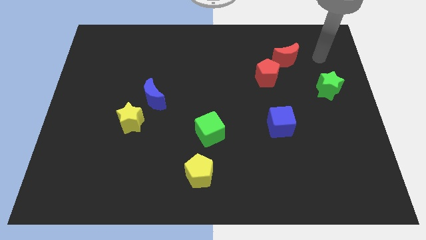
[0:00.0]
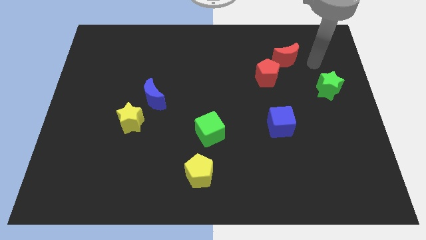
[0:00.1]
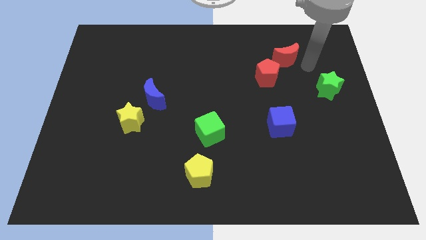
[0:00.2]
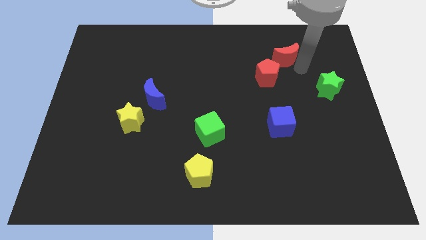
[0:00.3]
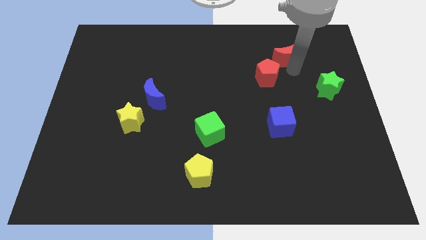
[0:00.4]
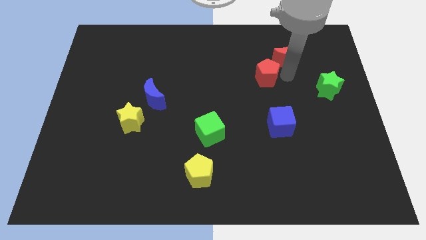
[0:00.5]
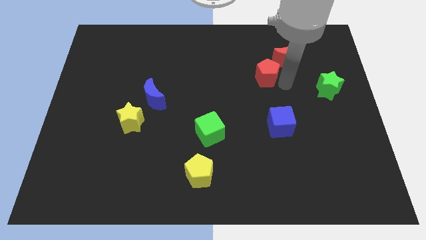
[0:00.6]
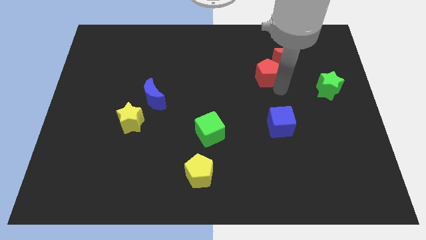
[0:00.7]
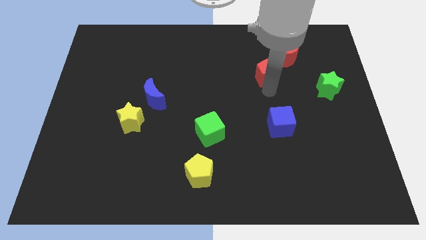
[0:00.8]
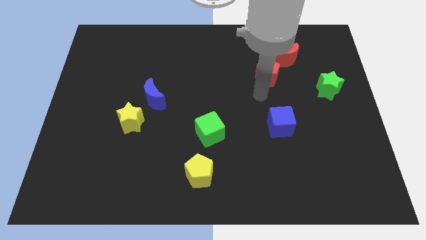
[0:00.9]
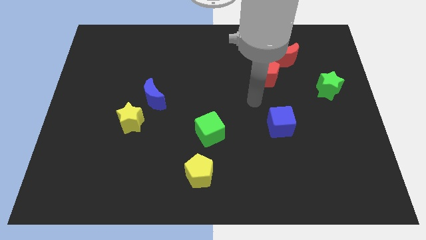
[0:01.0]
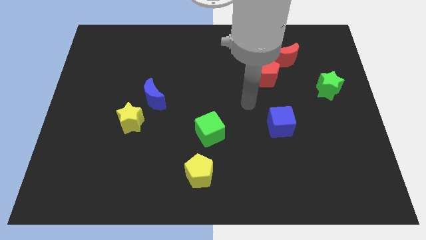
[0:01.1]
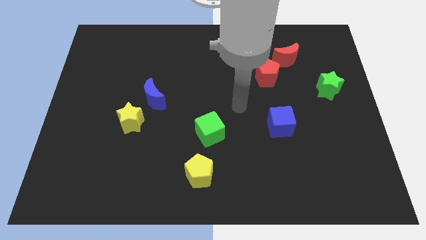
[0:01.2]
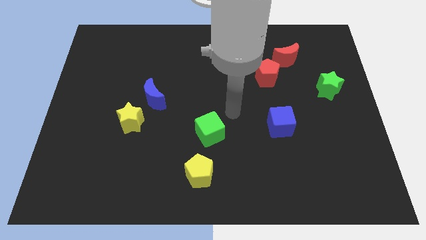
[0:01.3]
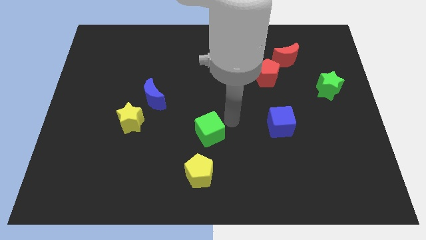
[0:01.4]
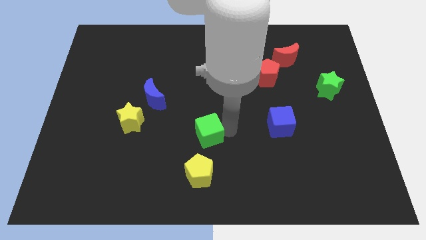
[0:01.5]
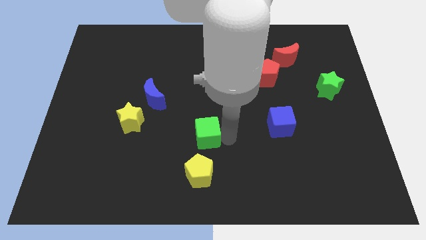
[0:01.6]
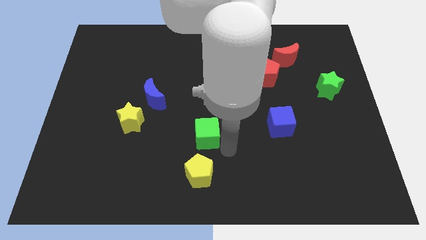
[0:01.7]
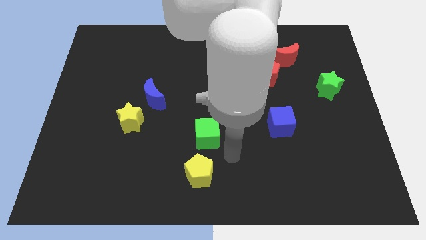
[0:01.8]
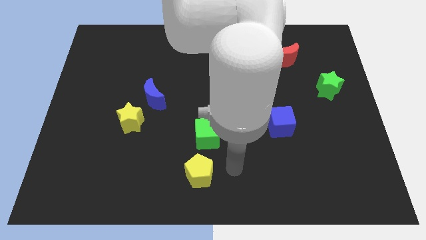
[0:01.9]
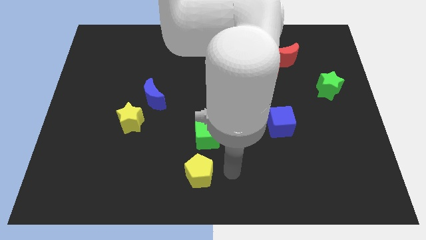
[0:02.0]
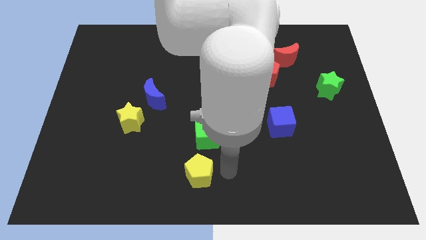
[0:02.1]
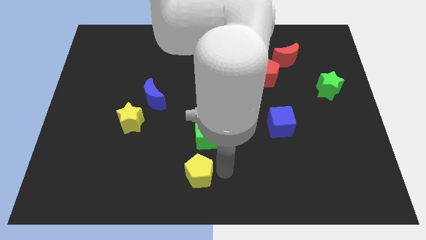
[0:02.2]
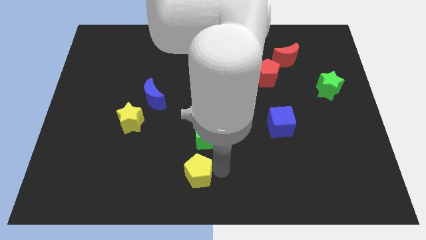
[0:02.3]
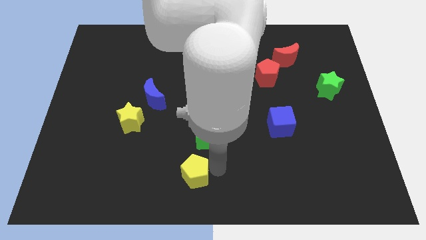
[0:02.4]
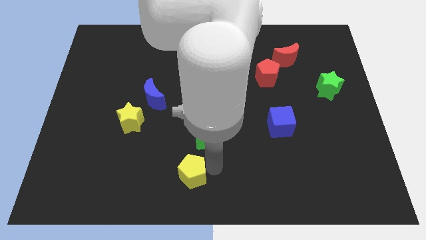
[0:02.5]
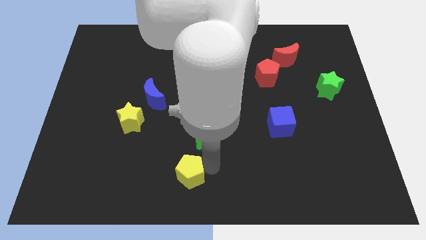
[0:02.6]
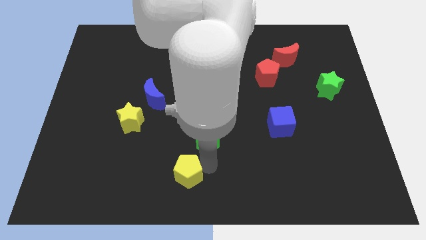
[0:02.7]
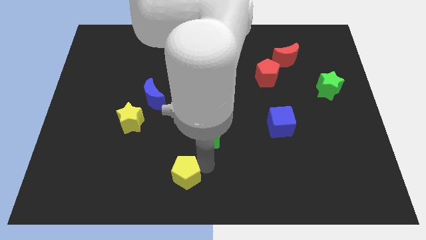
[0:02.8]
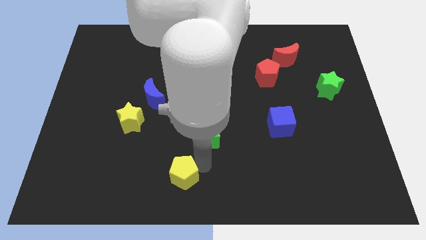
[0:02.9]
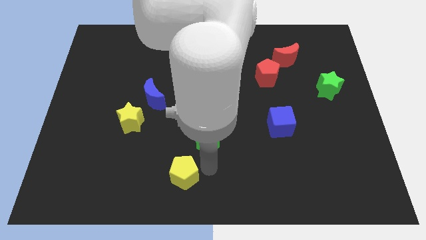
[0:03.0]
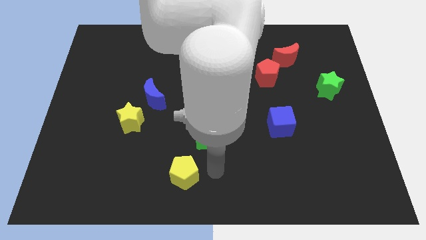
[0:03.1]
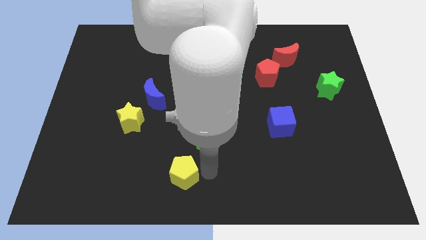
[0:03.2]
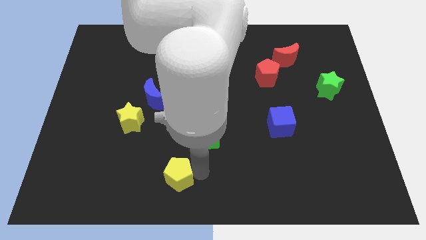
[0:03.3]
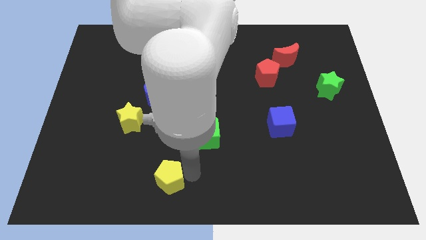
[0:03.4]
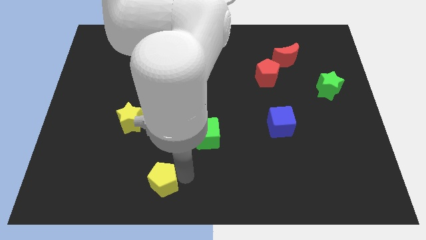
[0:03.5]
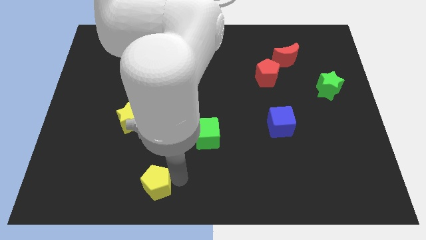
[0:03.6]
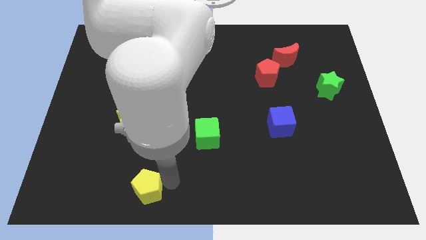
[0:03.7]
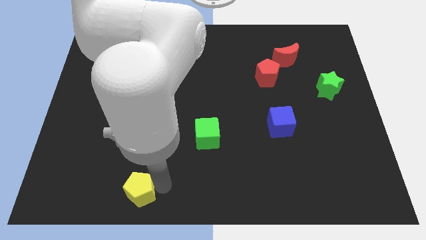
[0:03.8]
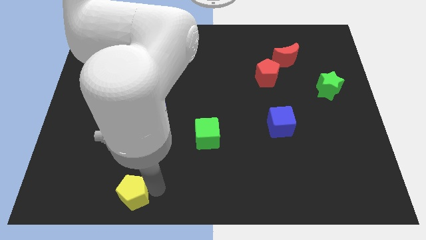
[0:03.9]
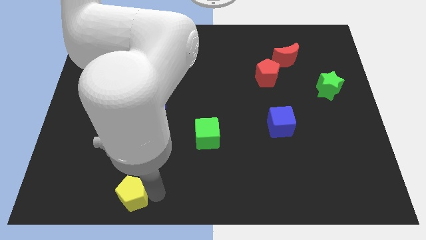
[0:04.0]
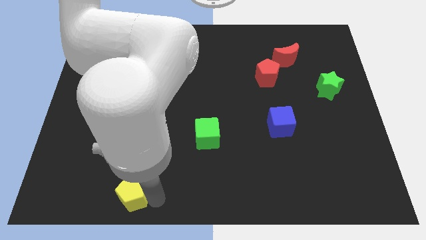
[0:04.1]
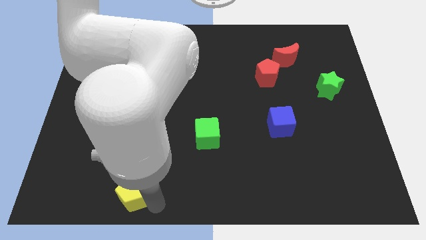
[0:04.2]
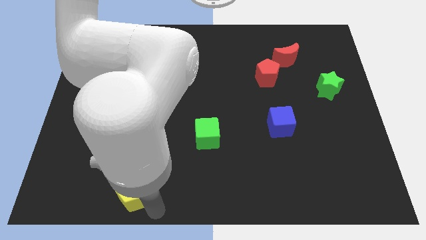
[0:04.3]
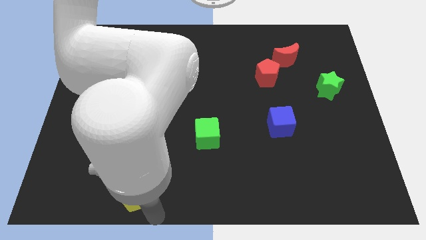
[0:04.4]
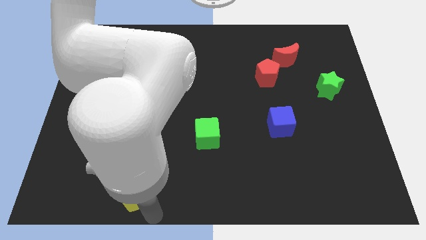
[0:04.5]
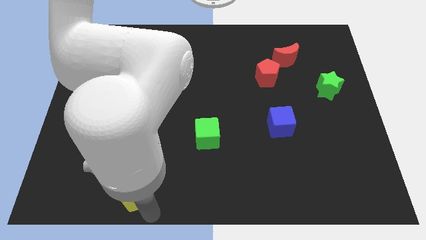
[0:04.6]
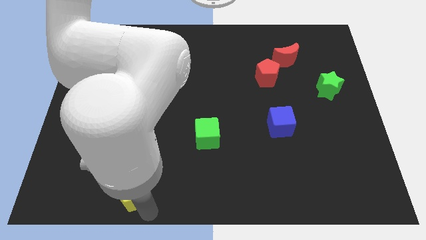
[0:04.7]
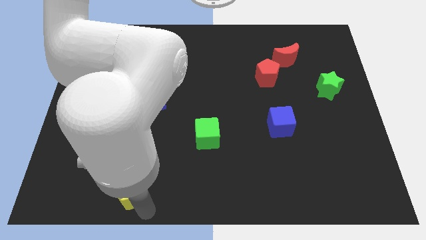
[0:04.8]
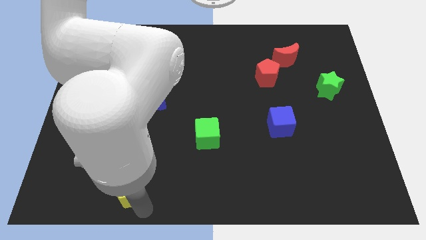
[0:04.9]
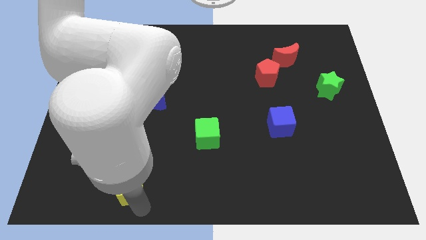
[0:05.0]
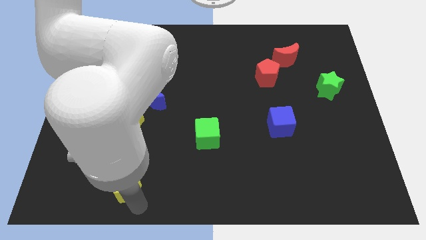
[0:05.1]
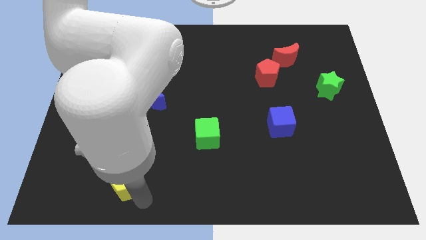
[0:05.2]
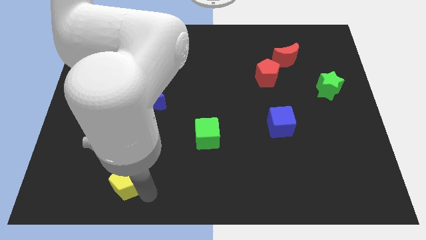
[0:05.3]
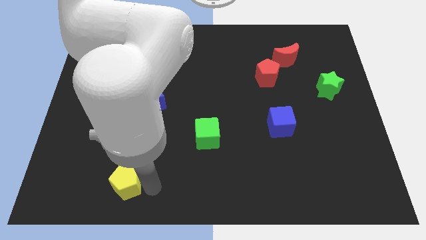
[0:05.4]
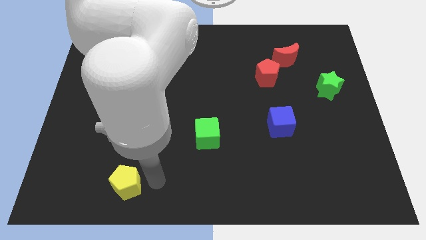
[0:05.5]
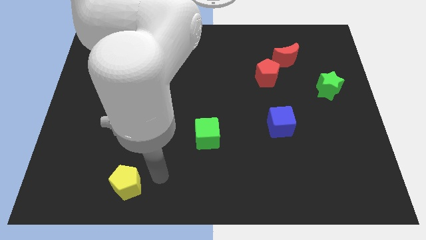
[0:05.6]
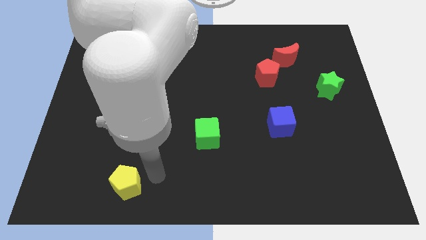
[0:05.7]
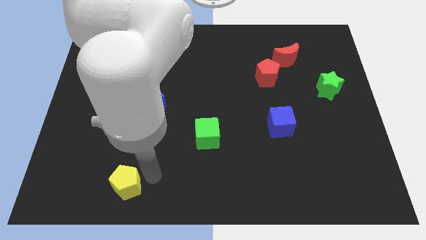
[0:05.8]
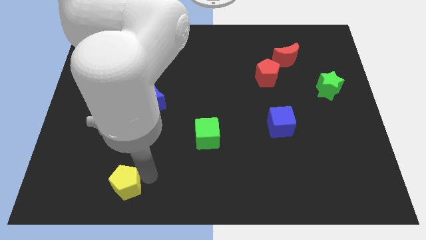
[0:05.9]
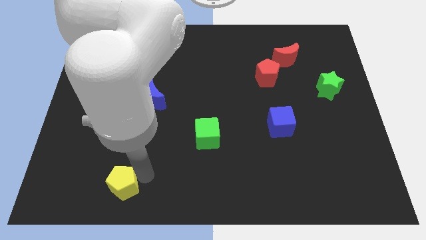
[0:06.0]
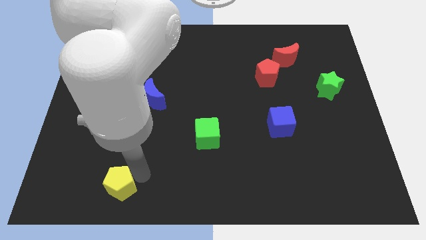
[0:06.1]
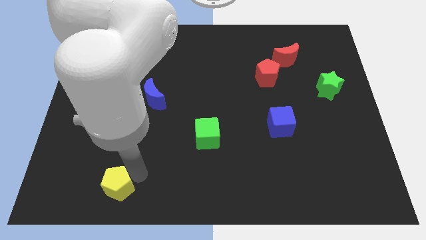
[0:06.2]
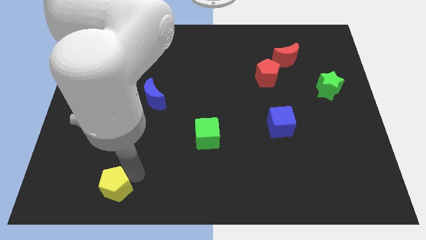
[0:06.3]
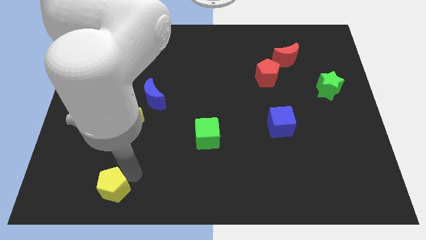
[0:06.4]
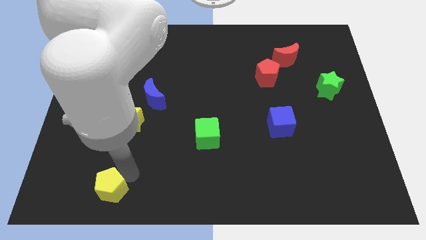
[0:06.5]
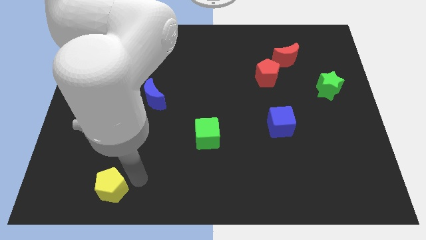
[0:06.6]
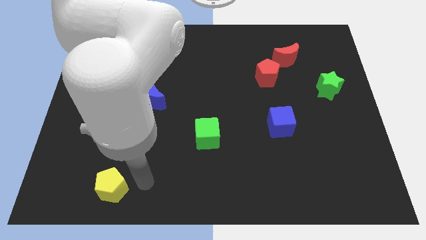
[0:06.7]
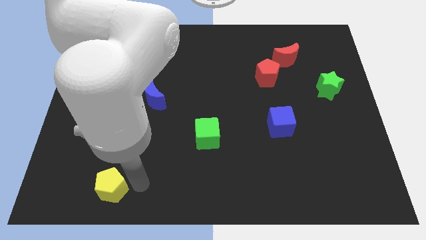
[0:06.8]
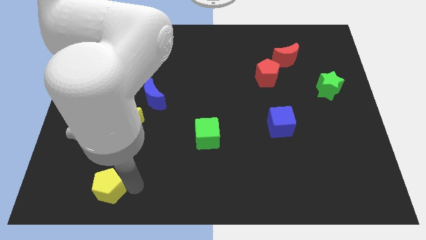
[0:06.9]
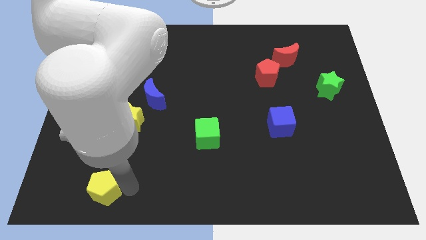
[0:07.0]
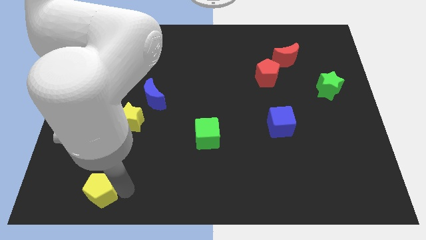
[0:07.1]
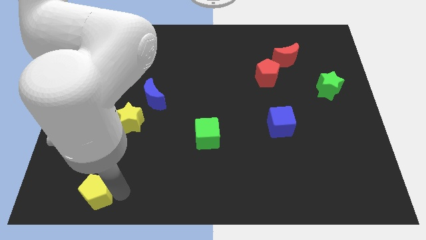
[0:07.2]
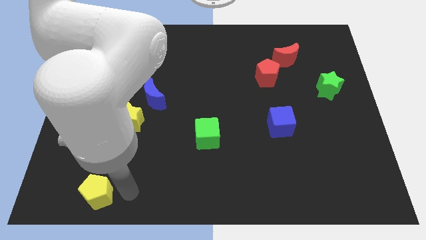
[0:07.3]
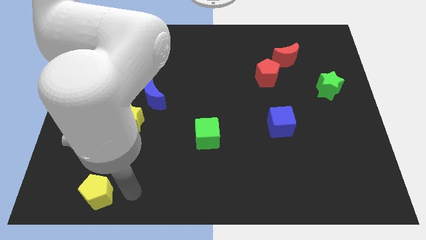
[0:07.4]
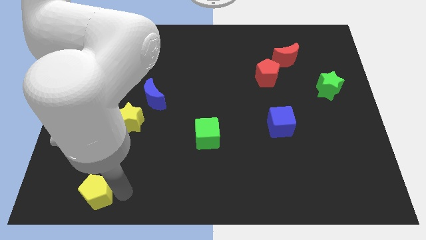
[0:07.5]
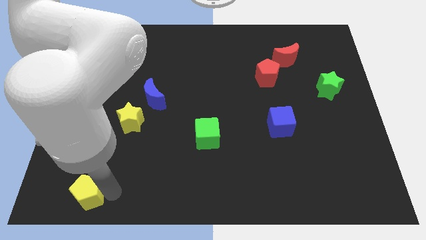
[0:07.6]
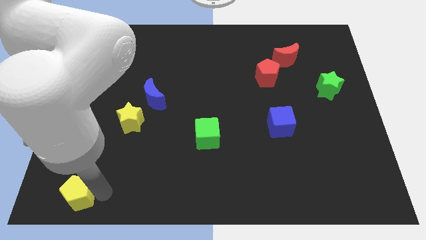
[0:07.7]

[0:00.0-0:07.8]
push the yellow pentagon to the lower left corner
